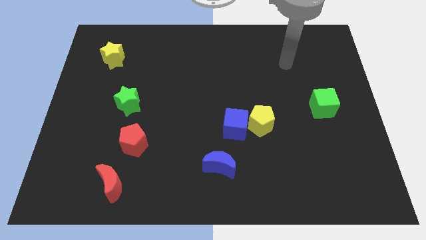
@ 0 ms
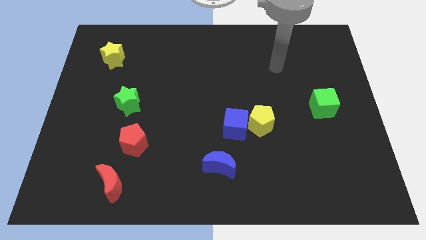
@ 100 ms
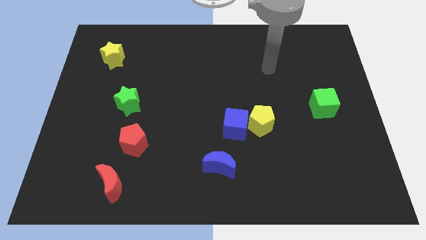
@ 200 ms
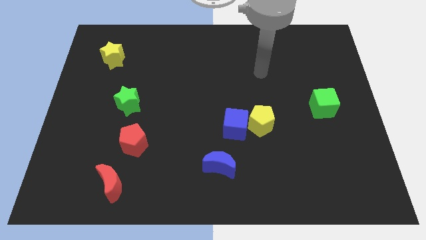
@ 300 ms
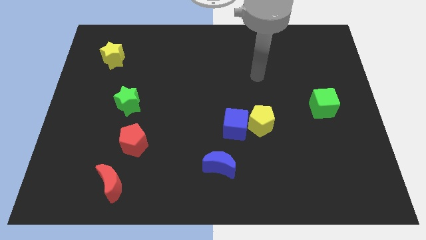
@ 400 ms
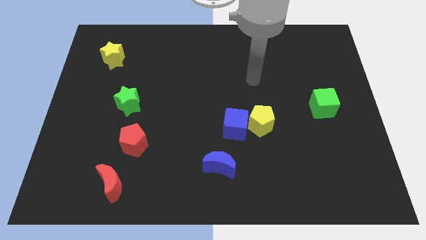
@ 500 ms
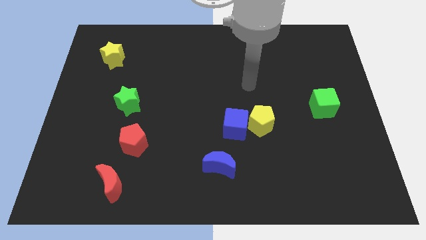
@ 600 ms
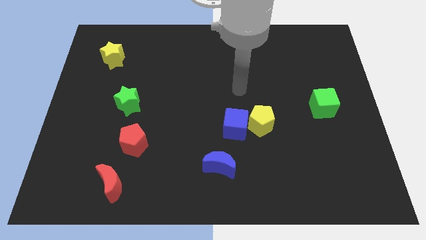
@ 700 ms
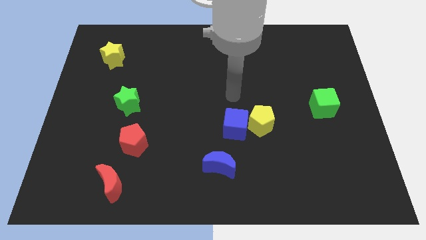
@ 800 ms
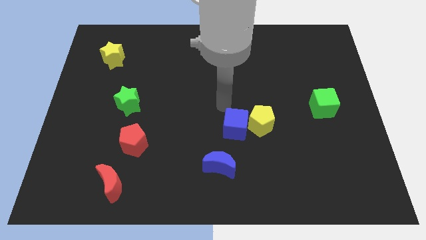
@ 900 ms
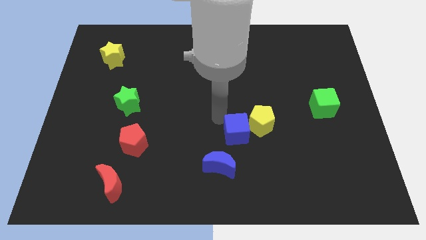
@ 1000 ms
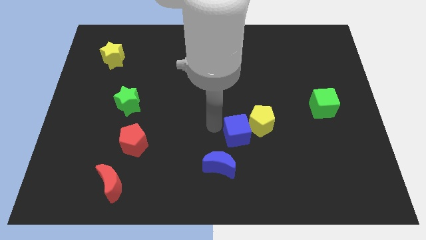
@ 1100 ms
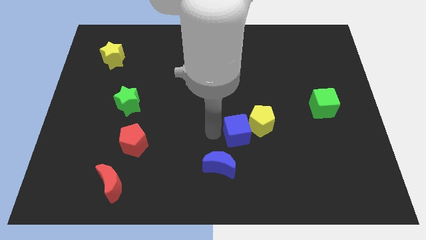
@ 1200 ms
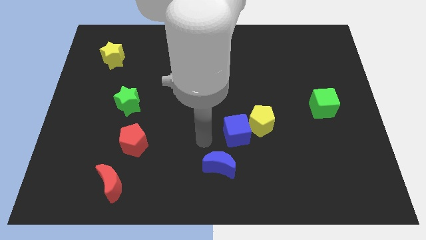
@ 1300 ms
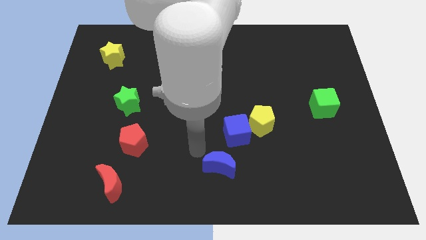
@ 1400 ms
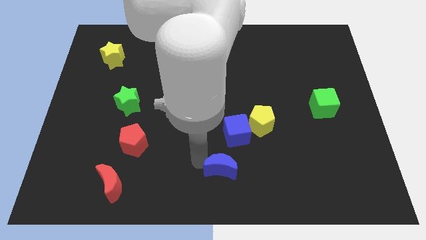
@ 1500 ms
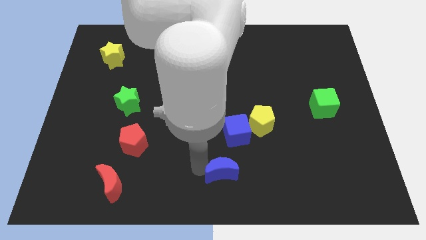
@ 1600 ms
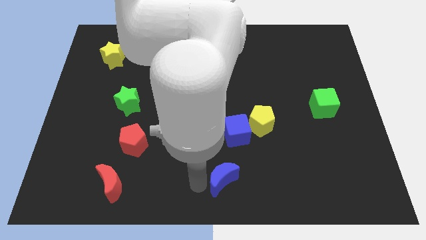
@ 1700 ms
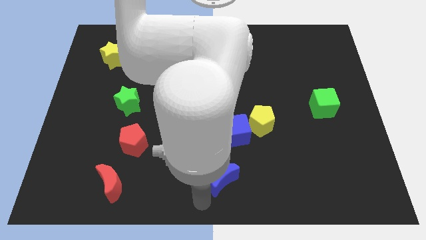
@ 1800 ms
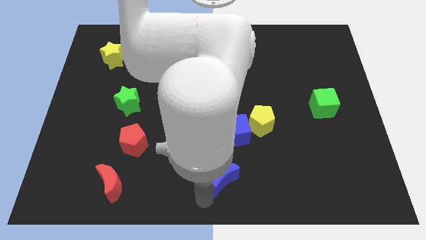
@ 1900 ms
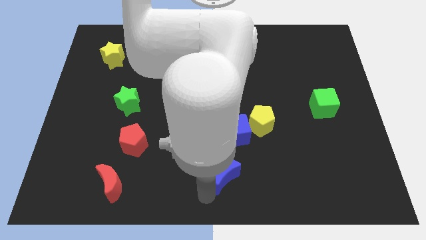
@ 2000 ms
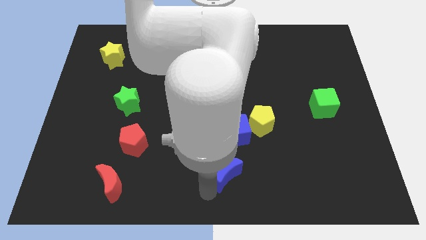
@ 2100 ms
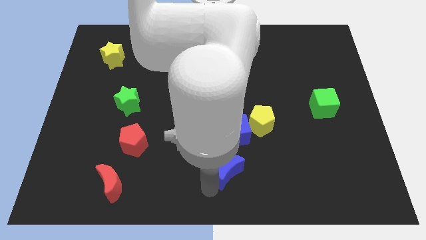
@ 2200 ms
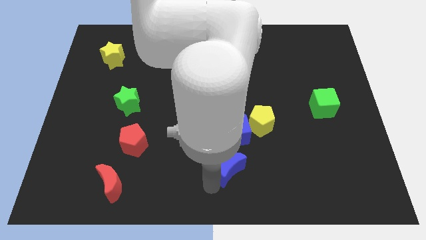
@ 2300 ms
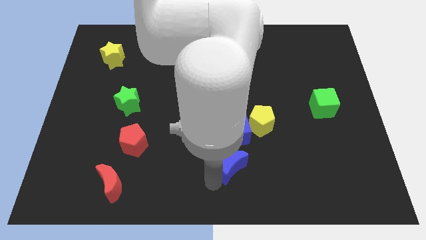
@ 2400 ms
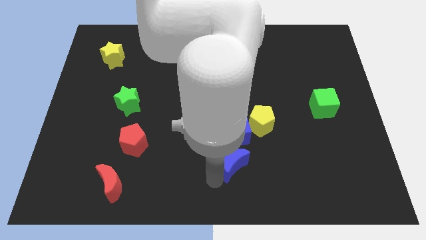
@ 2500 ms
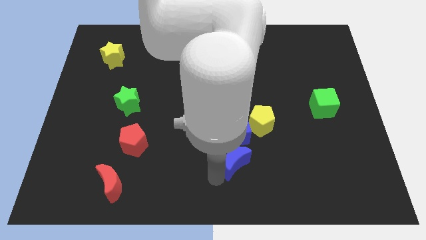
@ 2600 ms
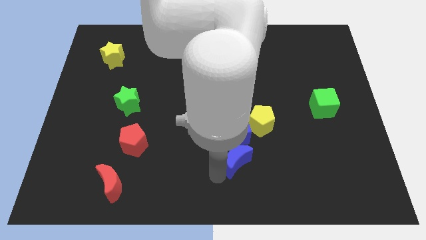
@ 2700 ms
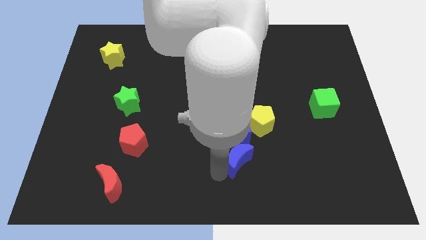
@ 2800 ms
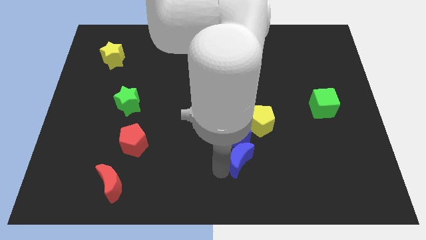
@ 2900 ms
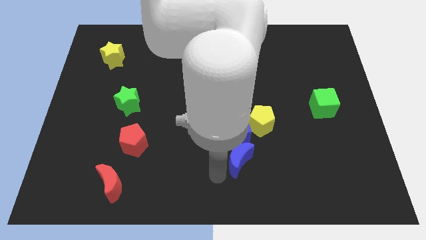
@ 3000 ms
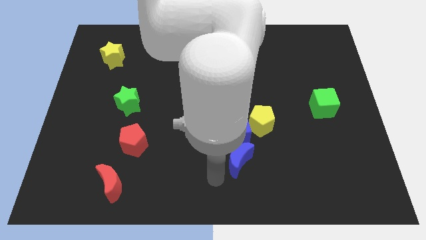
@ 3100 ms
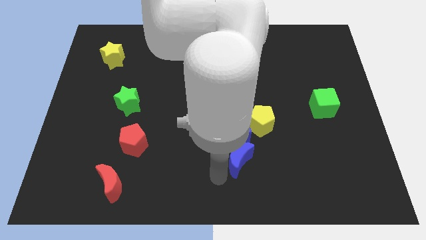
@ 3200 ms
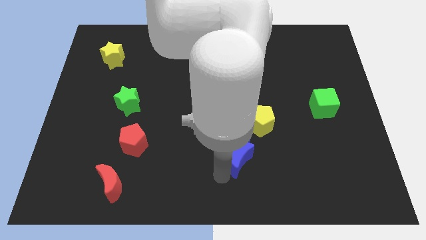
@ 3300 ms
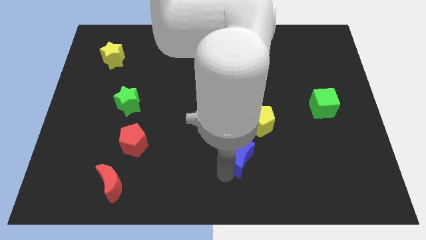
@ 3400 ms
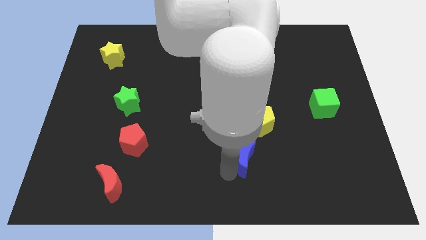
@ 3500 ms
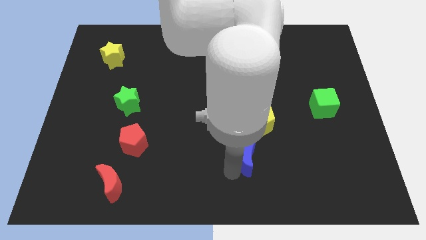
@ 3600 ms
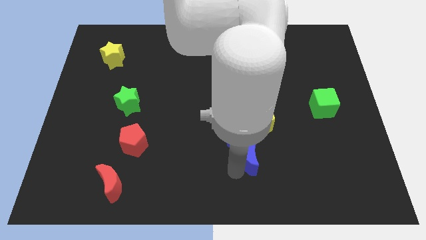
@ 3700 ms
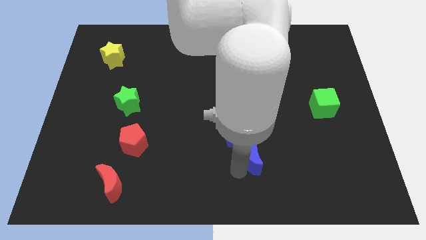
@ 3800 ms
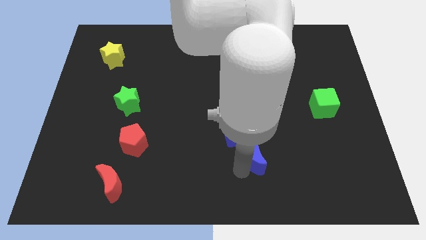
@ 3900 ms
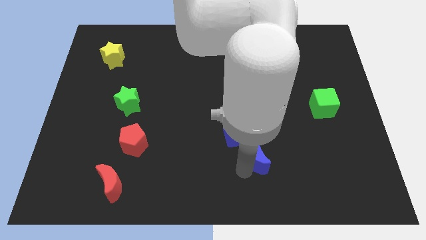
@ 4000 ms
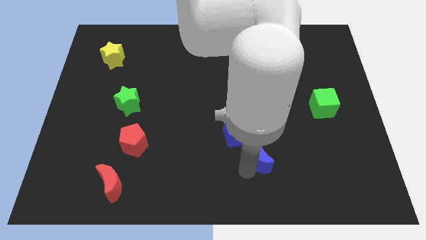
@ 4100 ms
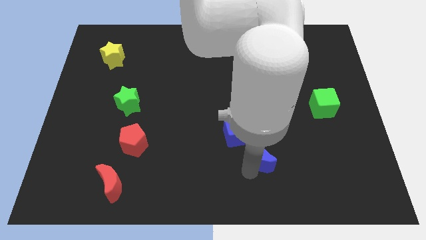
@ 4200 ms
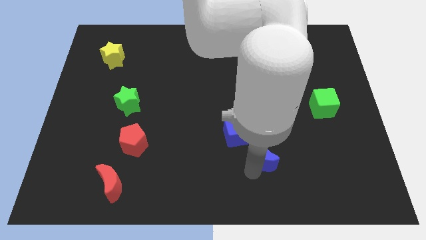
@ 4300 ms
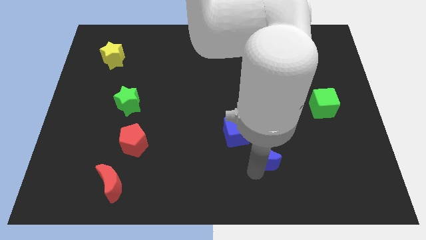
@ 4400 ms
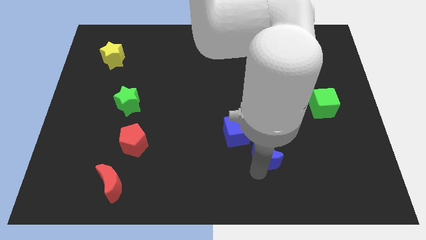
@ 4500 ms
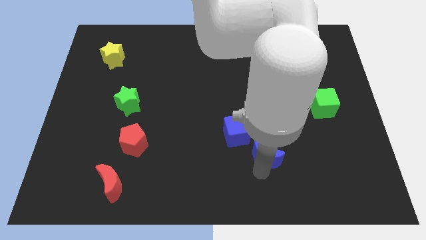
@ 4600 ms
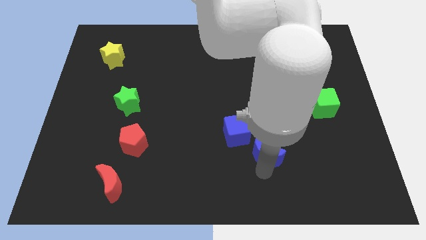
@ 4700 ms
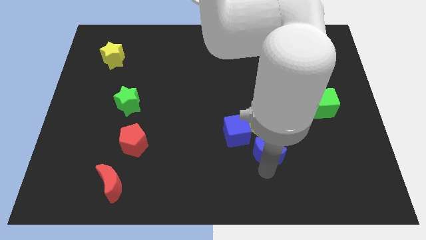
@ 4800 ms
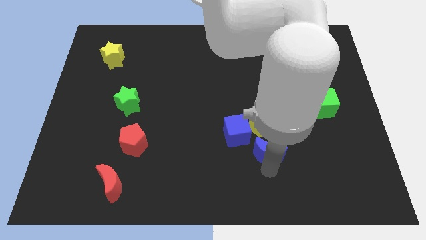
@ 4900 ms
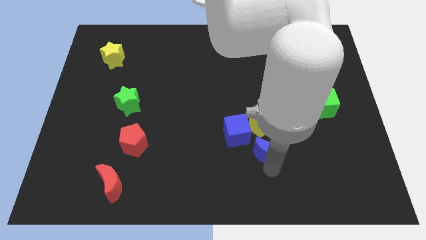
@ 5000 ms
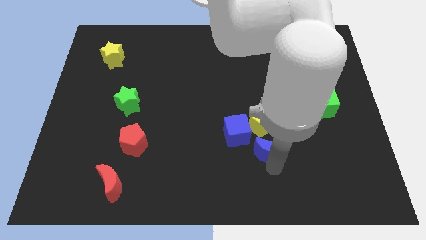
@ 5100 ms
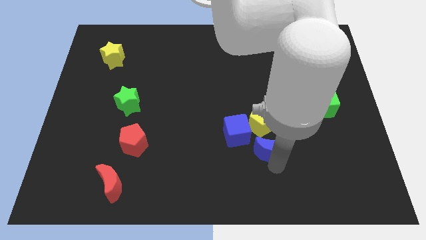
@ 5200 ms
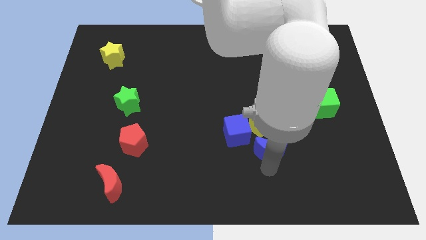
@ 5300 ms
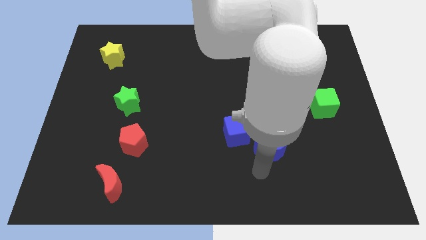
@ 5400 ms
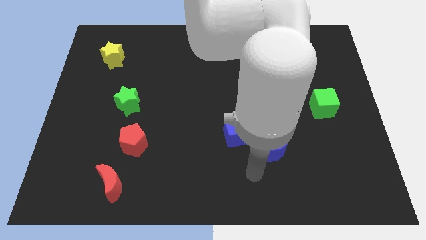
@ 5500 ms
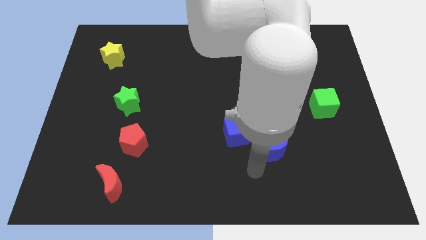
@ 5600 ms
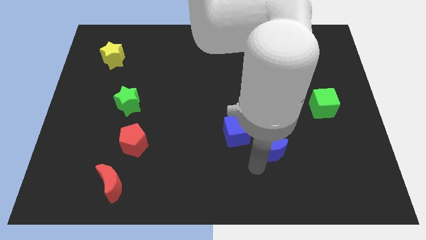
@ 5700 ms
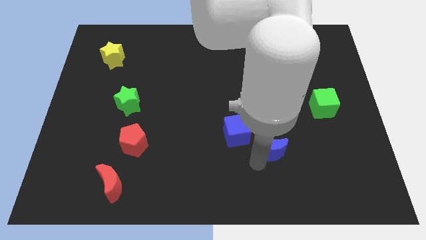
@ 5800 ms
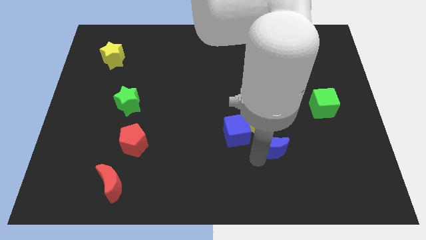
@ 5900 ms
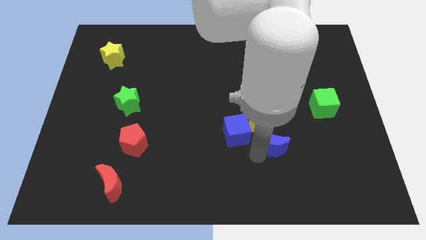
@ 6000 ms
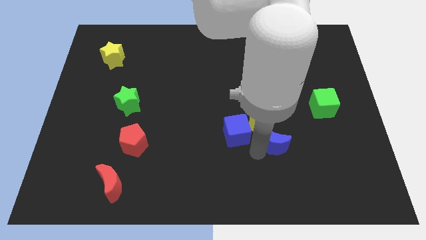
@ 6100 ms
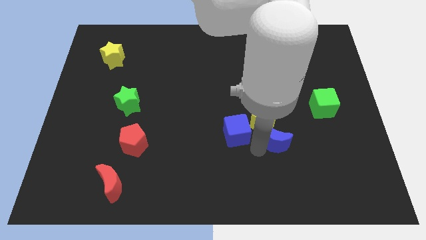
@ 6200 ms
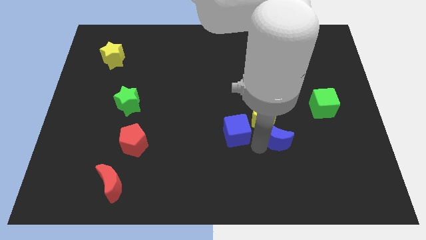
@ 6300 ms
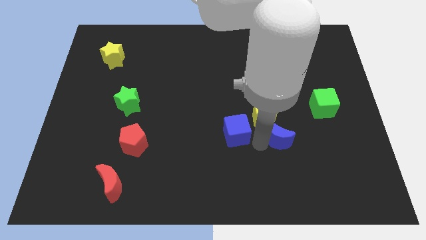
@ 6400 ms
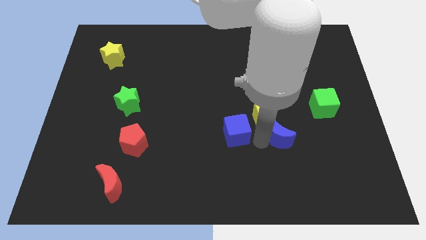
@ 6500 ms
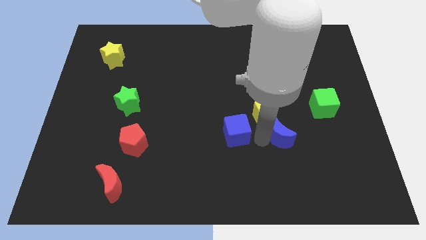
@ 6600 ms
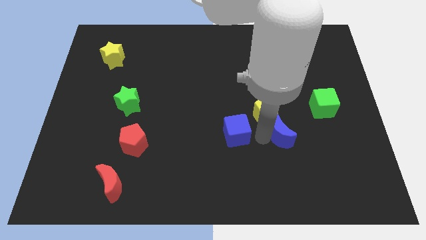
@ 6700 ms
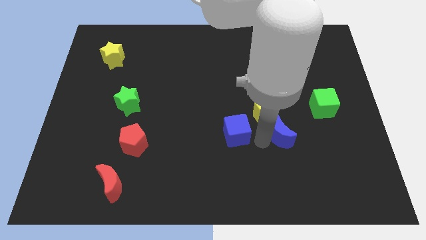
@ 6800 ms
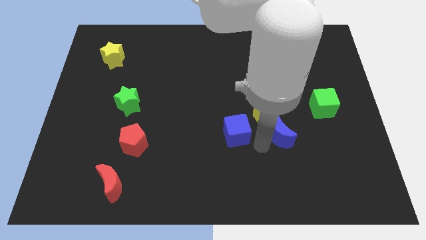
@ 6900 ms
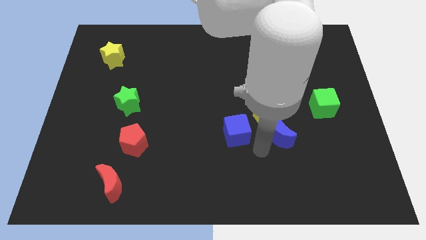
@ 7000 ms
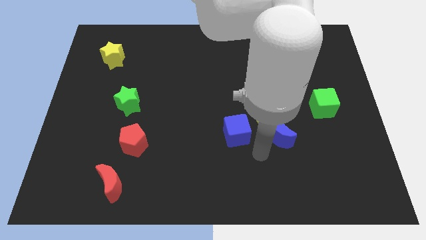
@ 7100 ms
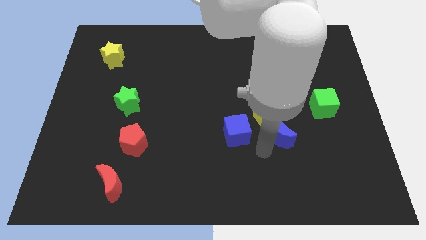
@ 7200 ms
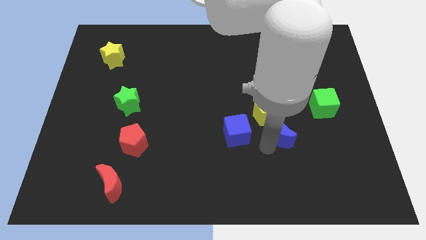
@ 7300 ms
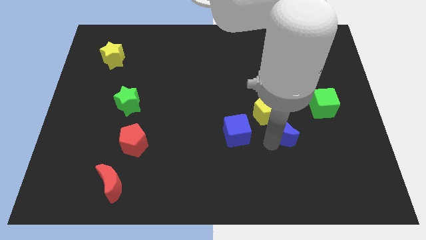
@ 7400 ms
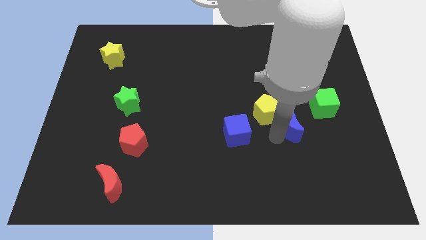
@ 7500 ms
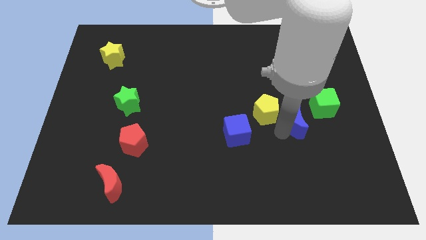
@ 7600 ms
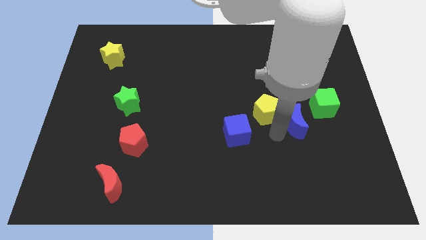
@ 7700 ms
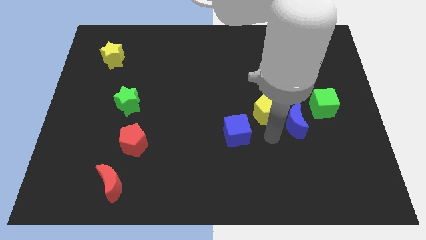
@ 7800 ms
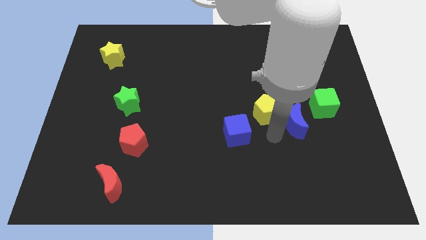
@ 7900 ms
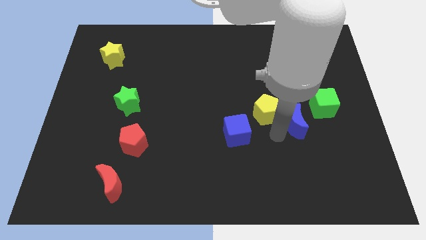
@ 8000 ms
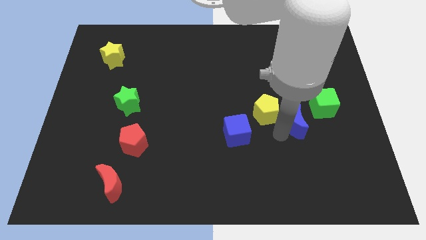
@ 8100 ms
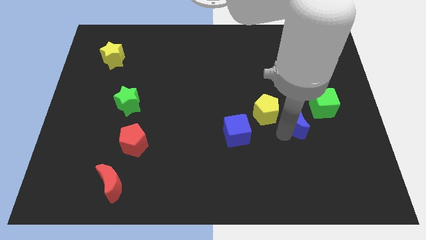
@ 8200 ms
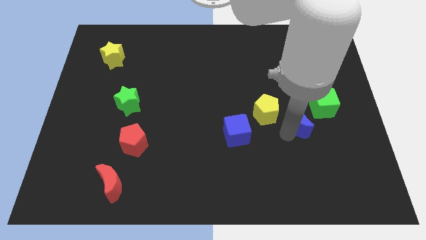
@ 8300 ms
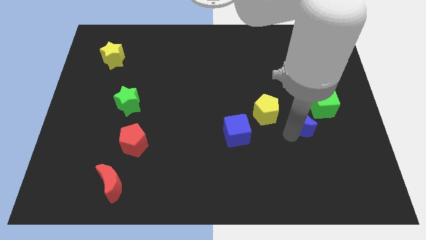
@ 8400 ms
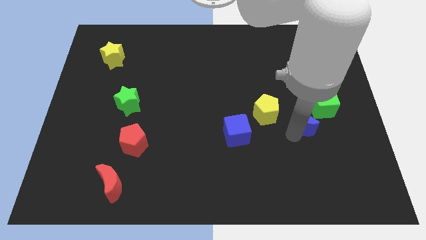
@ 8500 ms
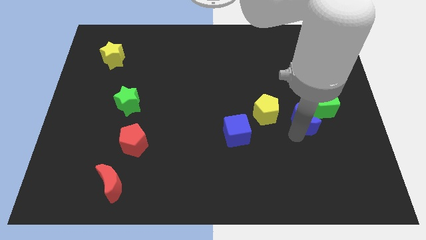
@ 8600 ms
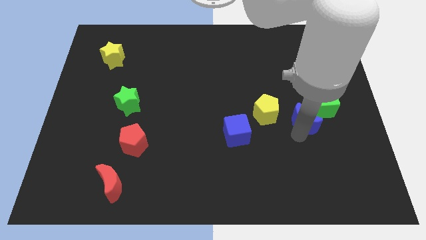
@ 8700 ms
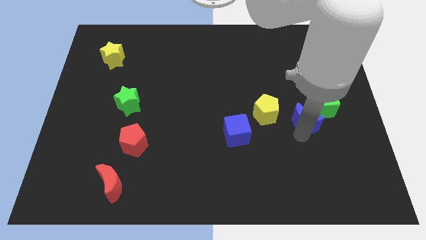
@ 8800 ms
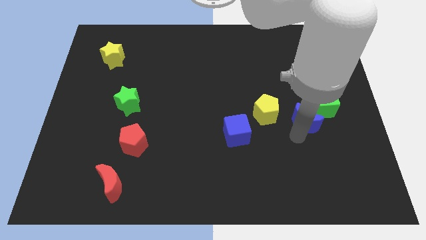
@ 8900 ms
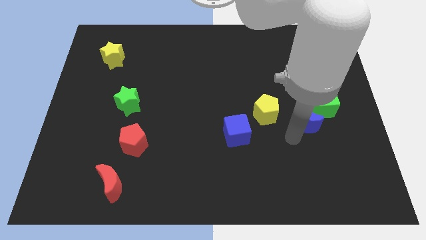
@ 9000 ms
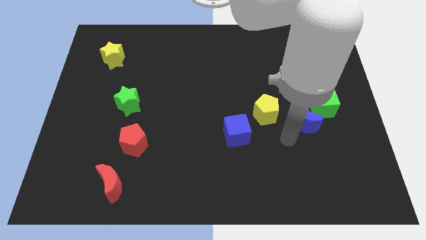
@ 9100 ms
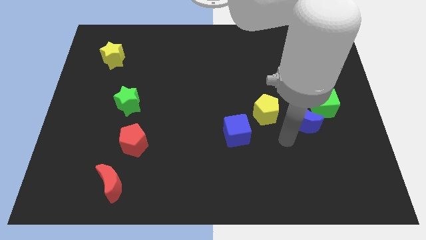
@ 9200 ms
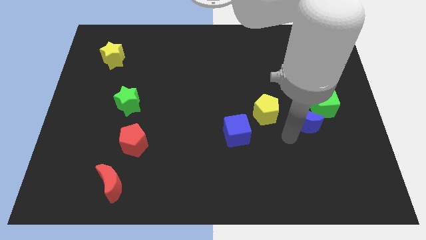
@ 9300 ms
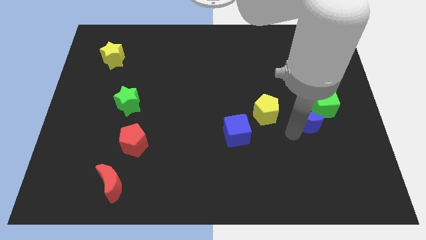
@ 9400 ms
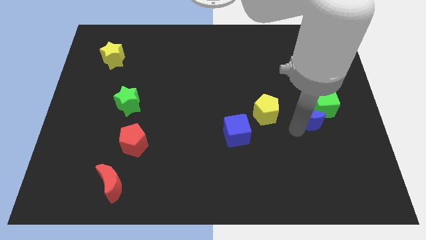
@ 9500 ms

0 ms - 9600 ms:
move the blue moon close to the green cube
